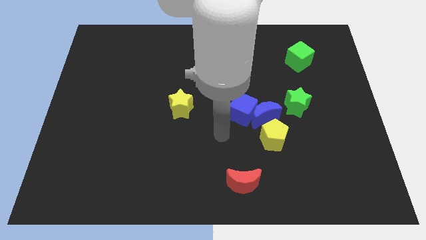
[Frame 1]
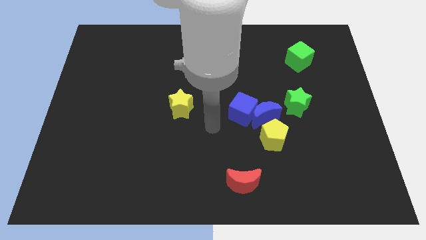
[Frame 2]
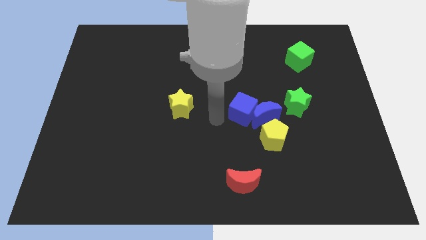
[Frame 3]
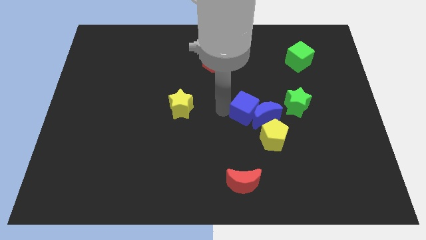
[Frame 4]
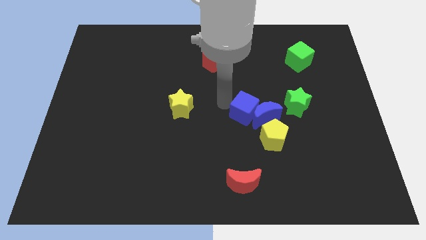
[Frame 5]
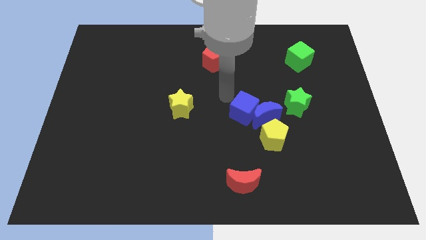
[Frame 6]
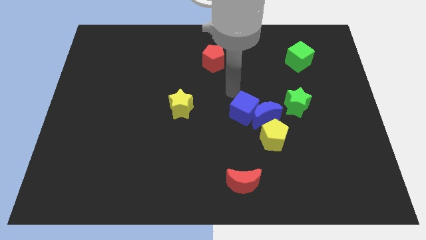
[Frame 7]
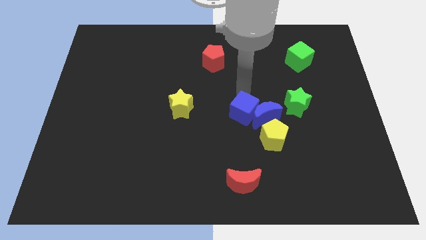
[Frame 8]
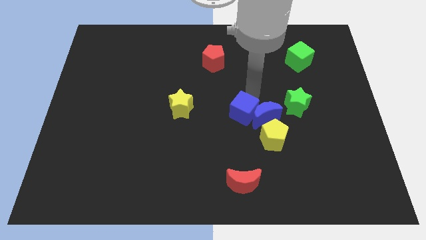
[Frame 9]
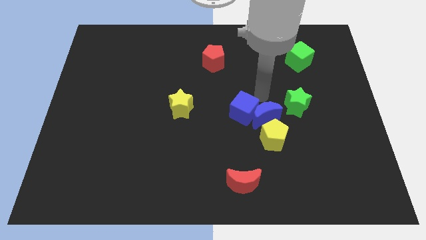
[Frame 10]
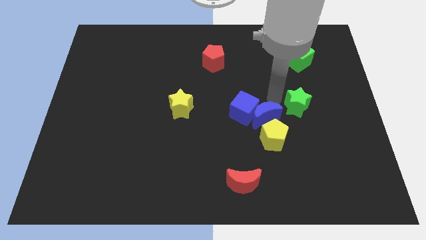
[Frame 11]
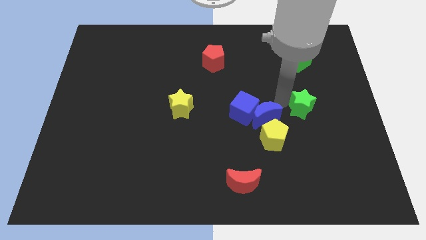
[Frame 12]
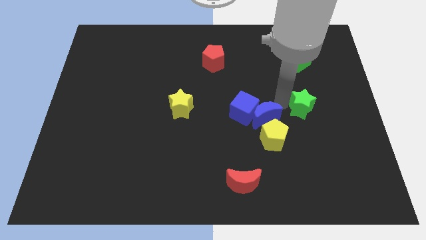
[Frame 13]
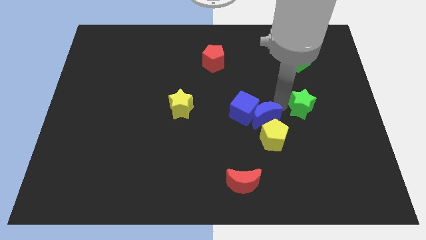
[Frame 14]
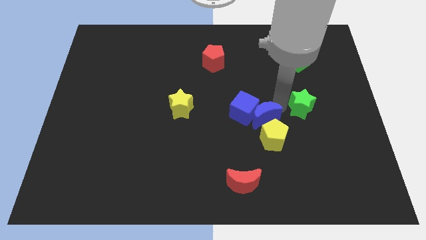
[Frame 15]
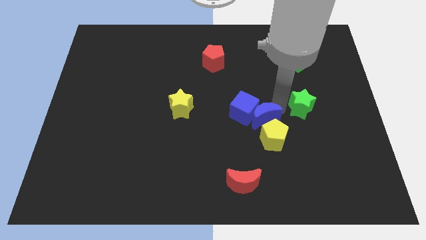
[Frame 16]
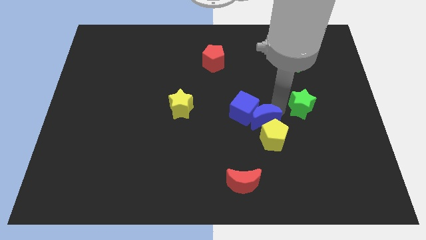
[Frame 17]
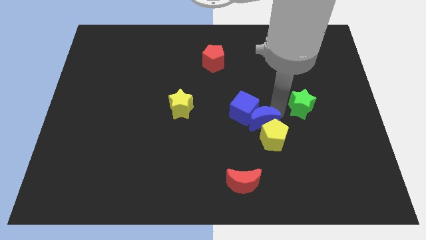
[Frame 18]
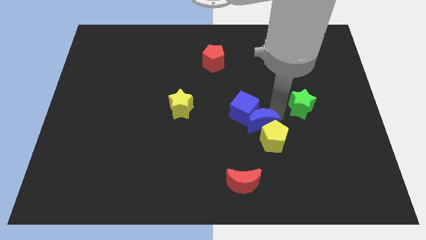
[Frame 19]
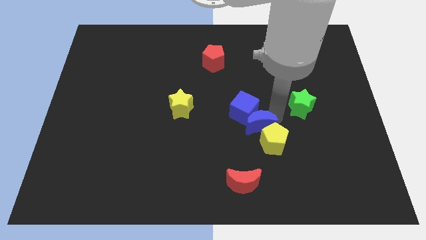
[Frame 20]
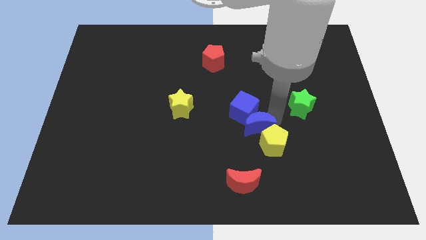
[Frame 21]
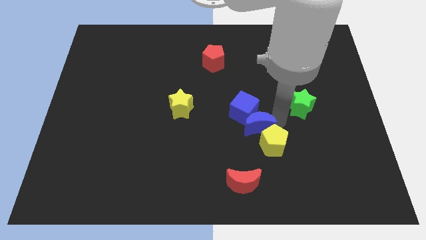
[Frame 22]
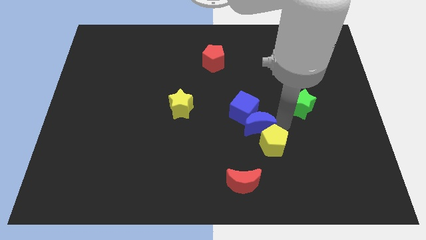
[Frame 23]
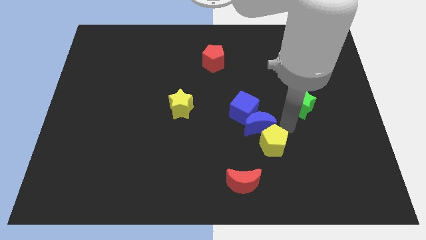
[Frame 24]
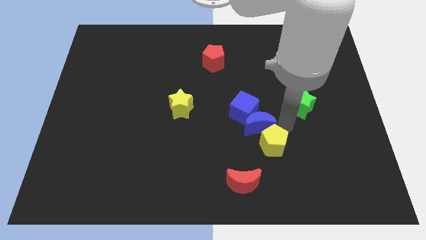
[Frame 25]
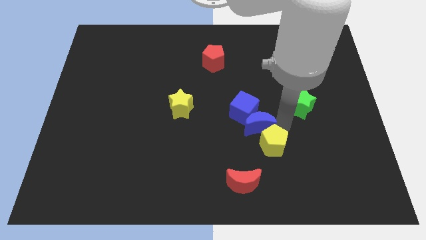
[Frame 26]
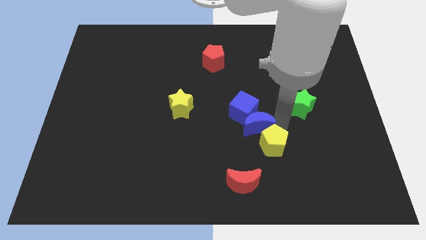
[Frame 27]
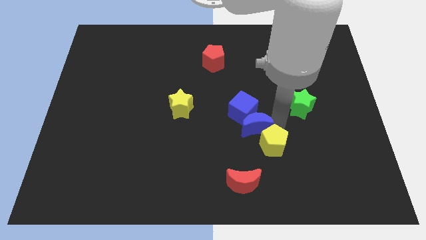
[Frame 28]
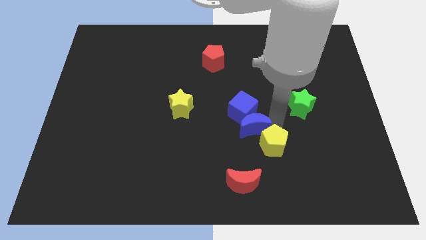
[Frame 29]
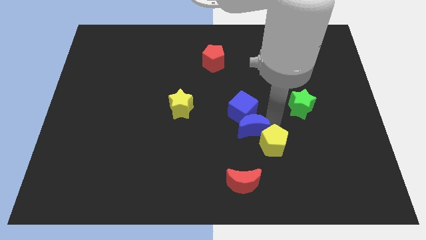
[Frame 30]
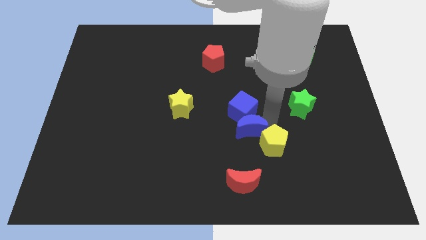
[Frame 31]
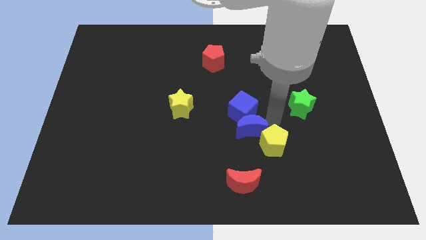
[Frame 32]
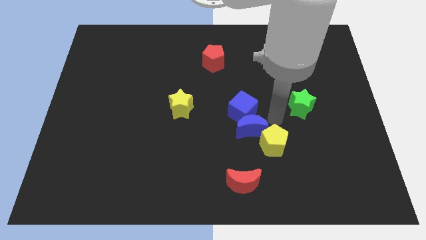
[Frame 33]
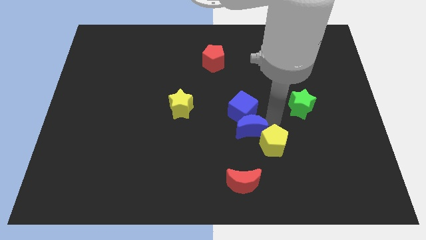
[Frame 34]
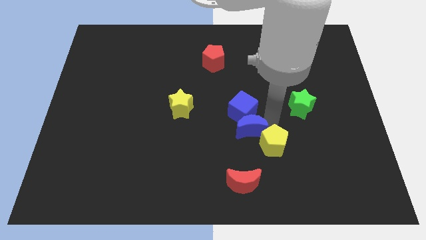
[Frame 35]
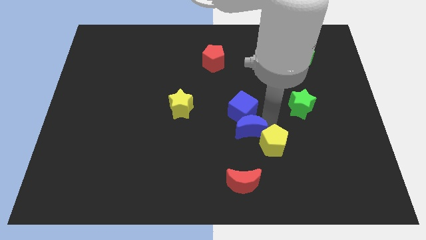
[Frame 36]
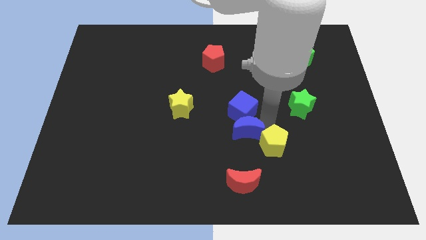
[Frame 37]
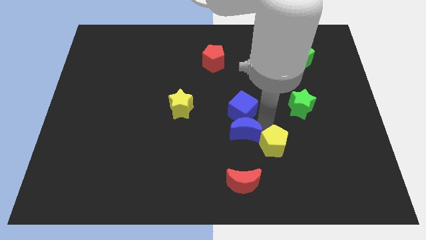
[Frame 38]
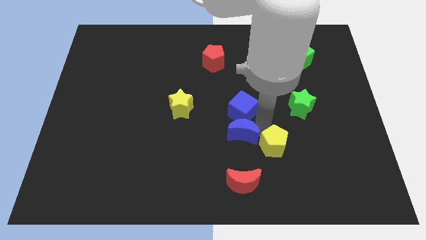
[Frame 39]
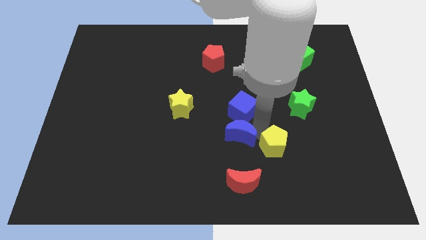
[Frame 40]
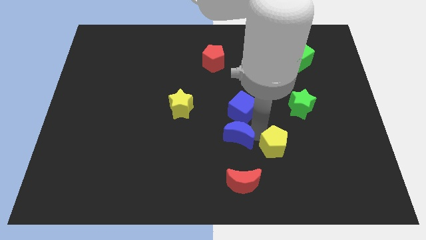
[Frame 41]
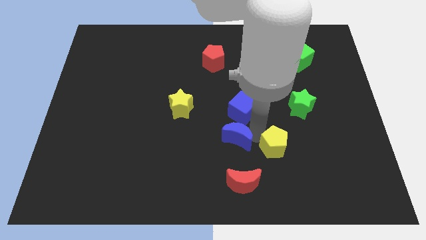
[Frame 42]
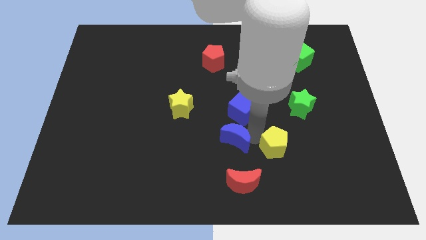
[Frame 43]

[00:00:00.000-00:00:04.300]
move the blue moon away from the group of blocks

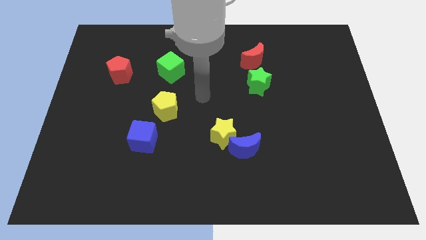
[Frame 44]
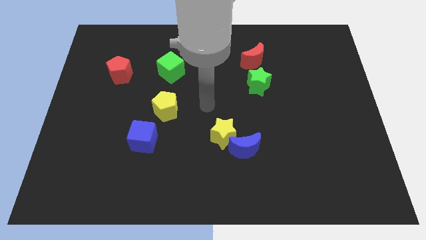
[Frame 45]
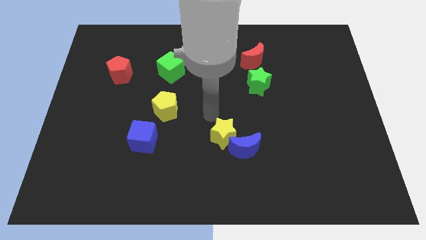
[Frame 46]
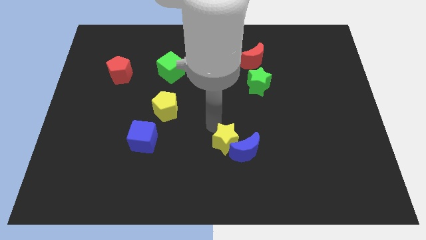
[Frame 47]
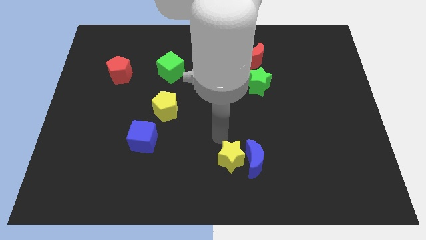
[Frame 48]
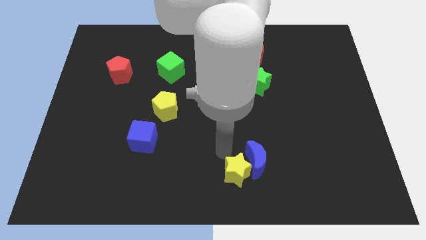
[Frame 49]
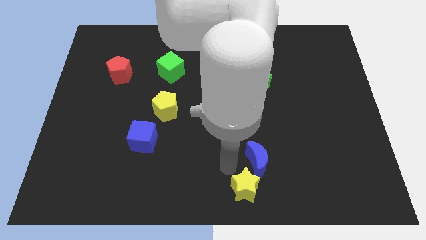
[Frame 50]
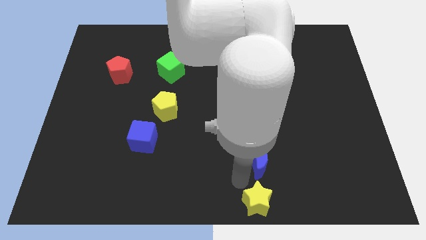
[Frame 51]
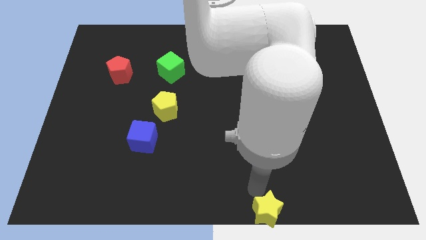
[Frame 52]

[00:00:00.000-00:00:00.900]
separate the blue moon from the yellow star

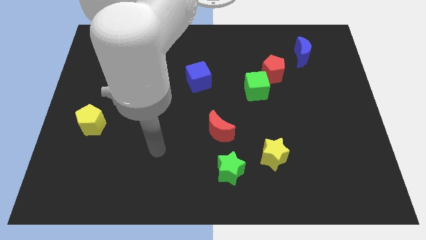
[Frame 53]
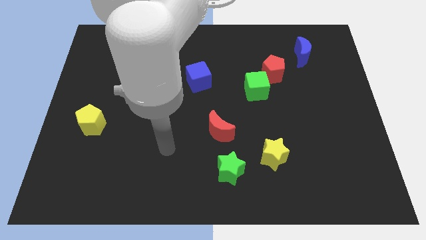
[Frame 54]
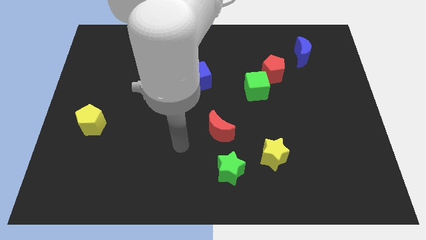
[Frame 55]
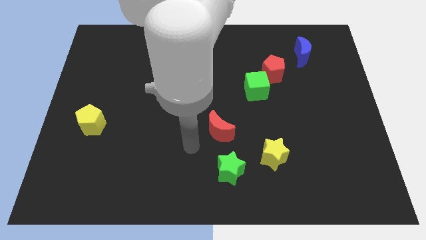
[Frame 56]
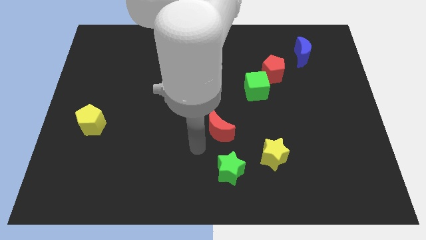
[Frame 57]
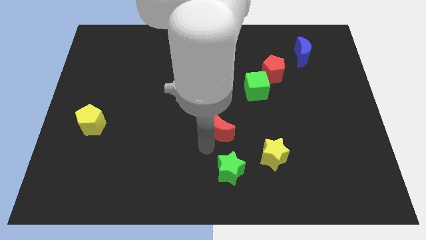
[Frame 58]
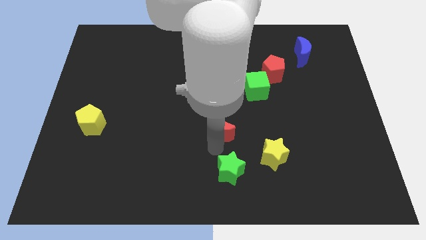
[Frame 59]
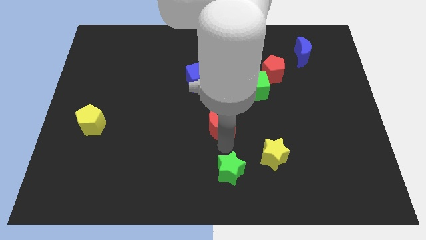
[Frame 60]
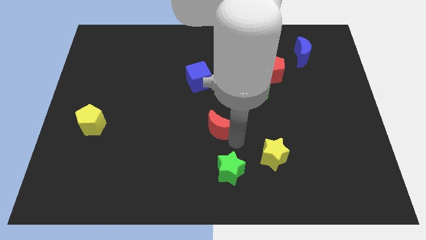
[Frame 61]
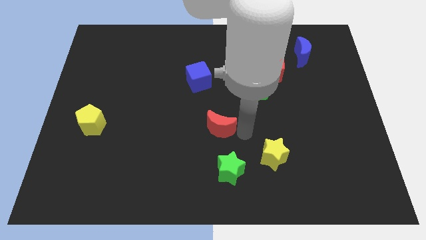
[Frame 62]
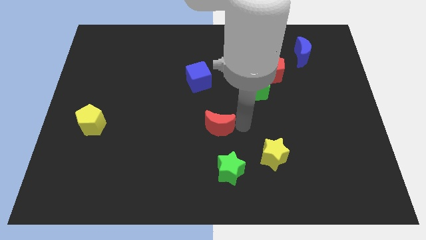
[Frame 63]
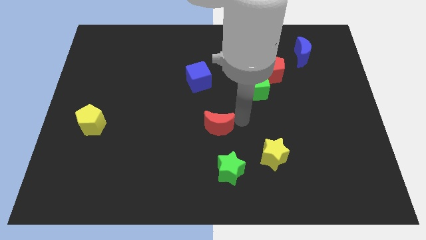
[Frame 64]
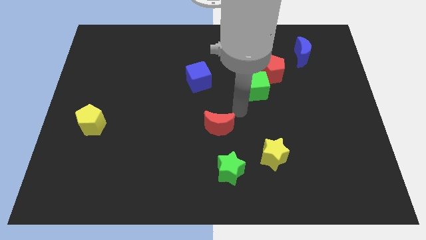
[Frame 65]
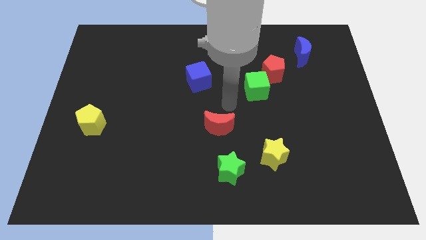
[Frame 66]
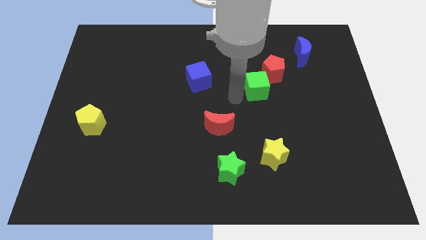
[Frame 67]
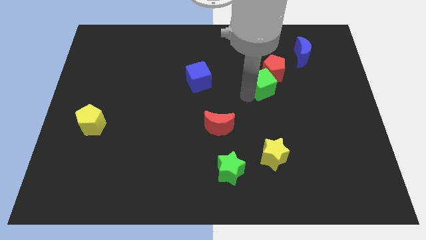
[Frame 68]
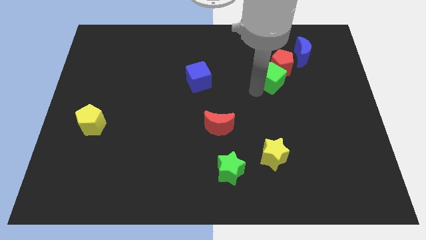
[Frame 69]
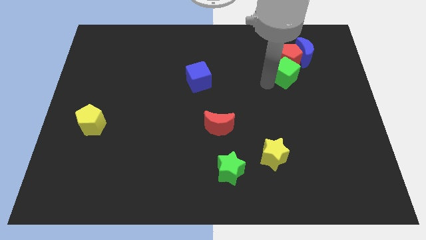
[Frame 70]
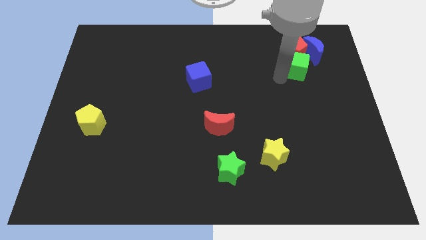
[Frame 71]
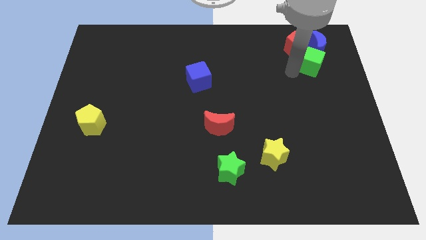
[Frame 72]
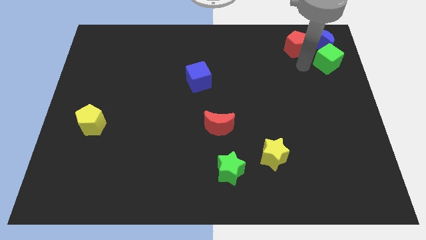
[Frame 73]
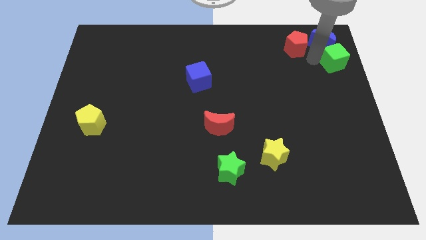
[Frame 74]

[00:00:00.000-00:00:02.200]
move the red pentagon away from the green cube

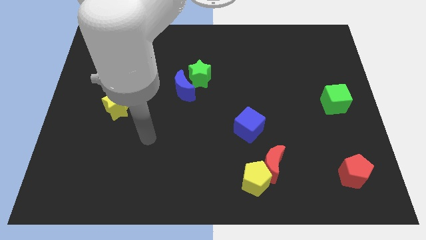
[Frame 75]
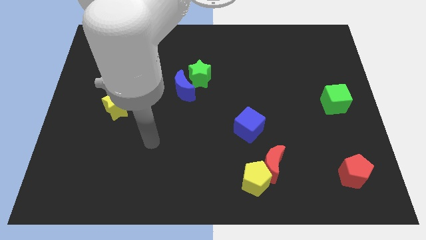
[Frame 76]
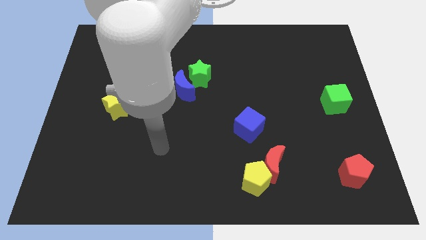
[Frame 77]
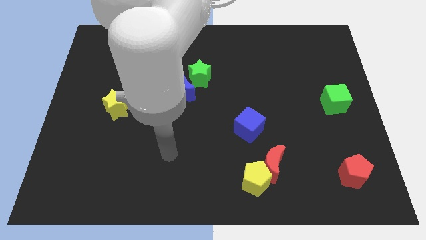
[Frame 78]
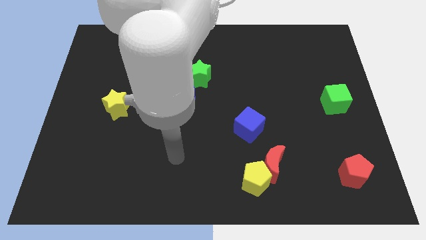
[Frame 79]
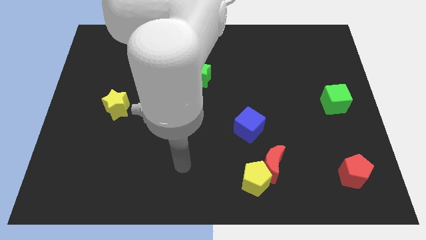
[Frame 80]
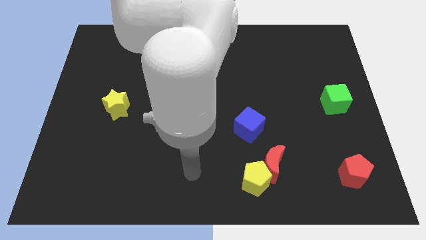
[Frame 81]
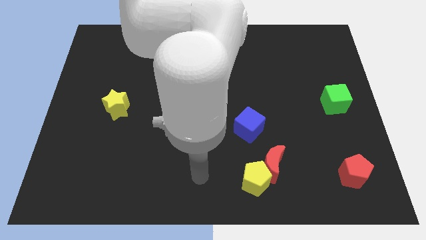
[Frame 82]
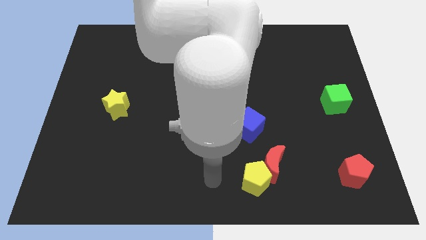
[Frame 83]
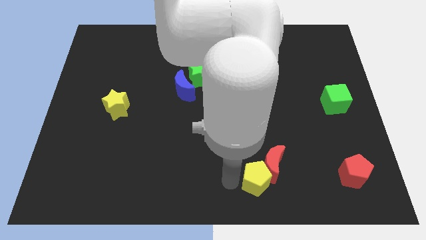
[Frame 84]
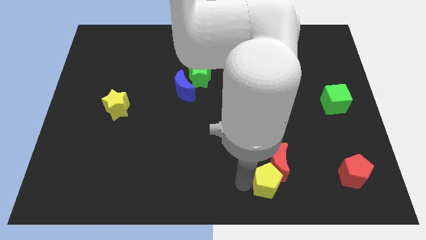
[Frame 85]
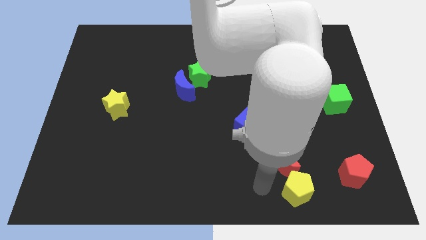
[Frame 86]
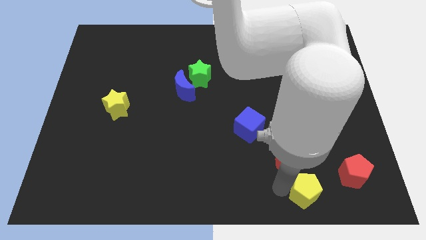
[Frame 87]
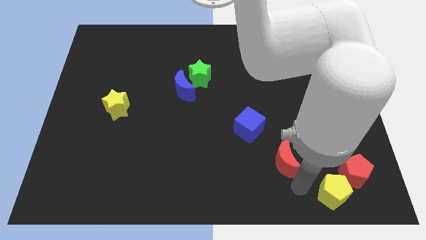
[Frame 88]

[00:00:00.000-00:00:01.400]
move the red moon away from the yellow pentagon

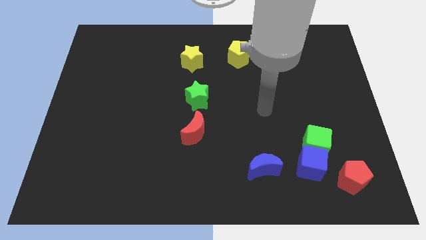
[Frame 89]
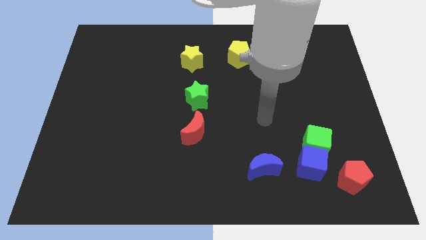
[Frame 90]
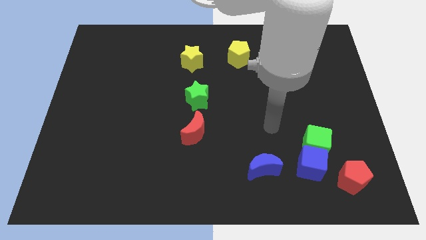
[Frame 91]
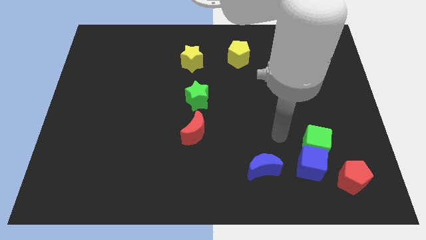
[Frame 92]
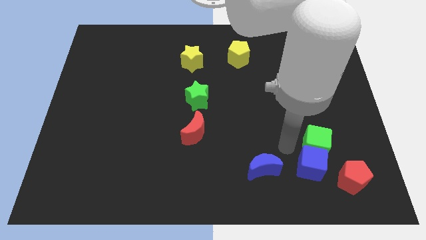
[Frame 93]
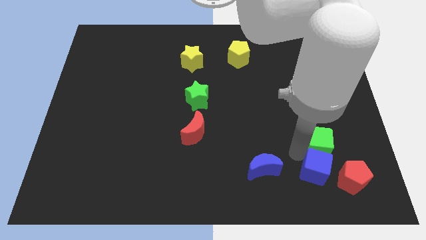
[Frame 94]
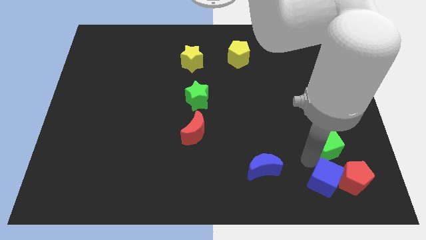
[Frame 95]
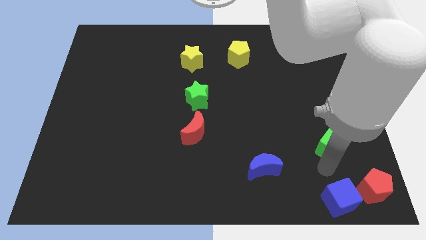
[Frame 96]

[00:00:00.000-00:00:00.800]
pull the green cube apart from the blue cube and red pentagon
